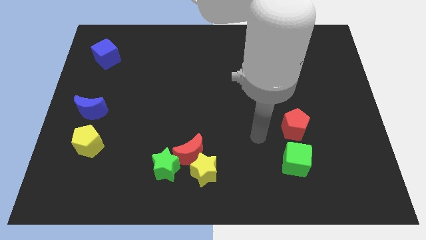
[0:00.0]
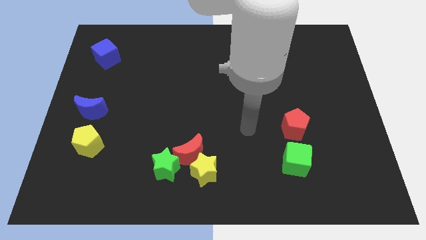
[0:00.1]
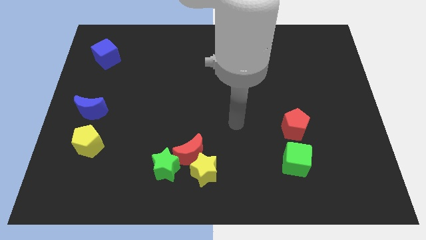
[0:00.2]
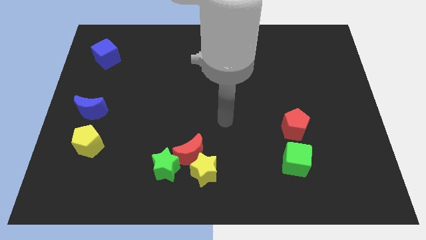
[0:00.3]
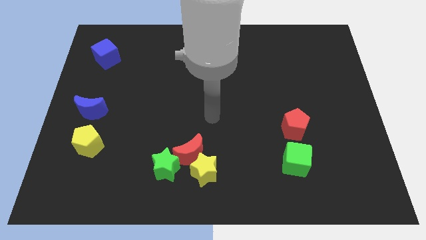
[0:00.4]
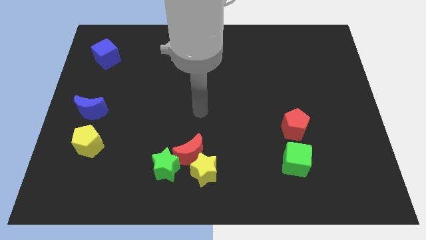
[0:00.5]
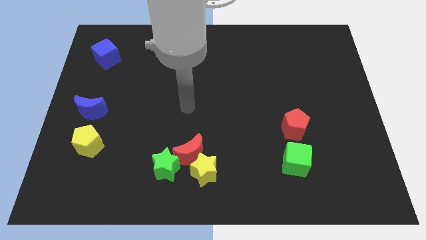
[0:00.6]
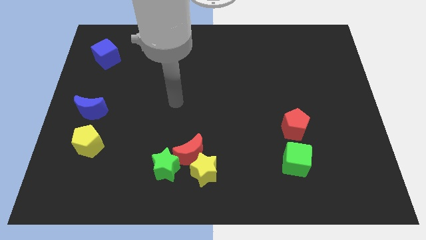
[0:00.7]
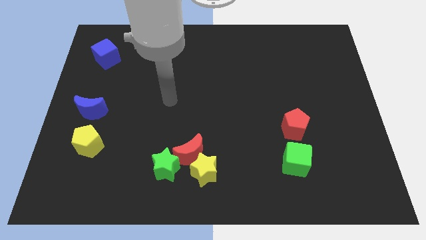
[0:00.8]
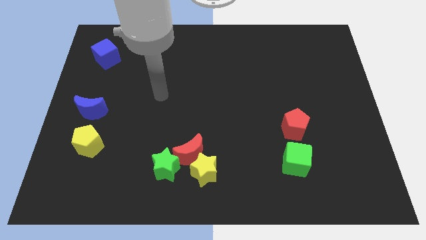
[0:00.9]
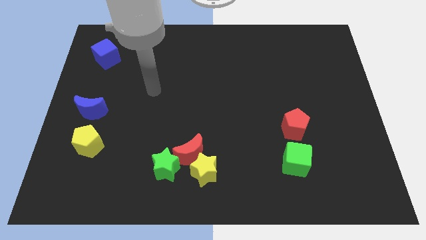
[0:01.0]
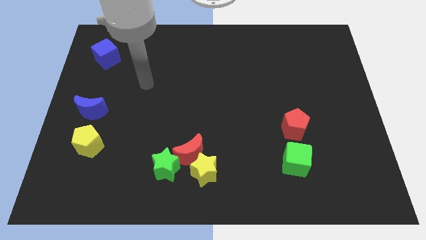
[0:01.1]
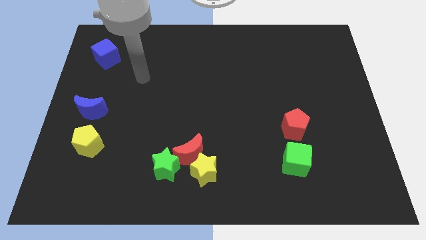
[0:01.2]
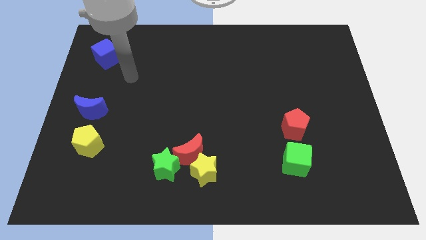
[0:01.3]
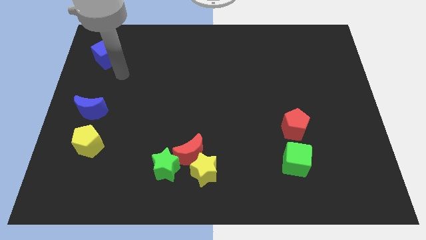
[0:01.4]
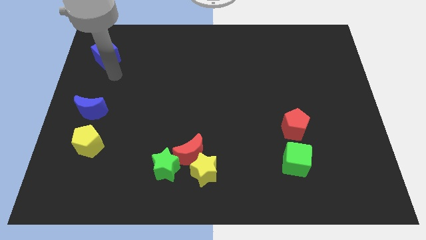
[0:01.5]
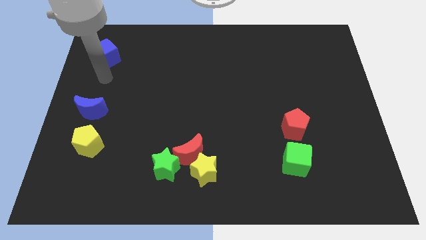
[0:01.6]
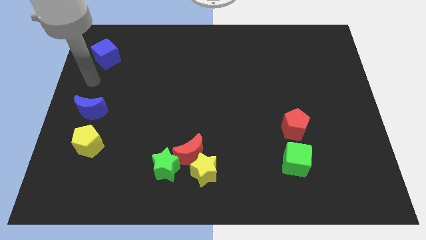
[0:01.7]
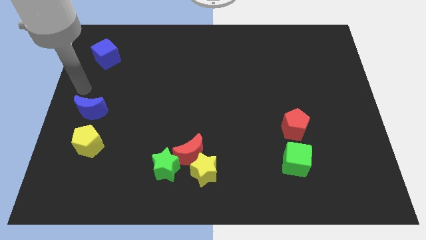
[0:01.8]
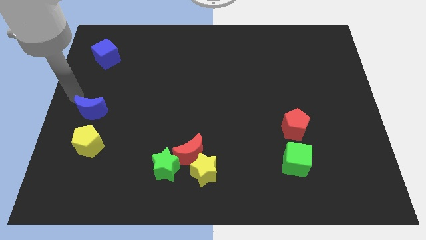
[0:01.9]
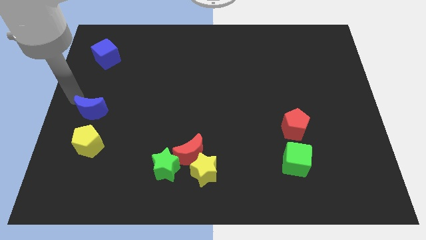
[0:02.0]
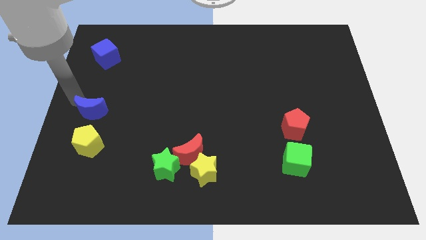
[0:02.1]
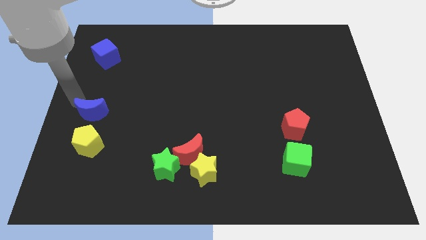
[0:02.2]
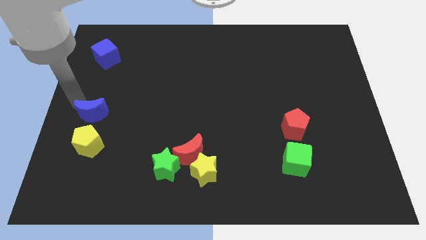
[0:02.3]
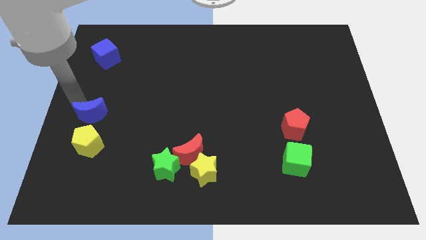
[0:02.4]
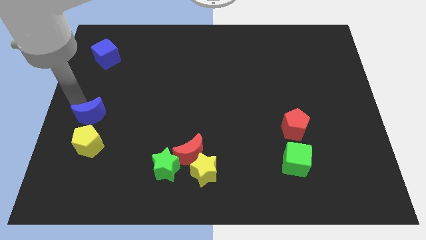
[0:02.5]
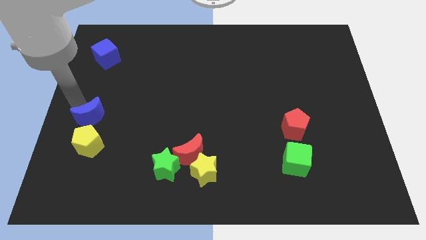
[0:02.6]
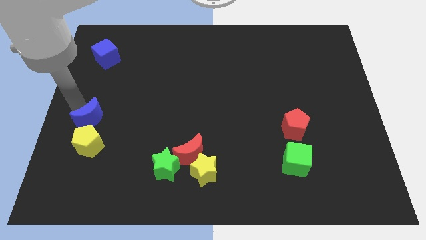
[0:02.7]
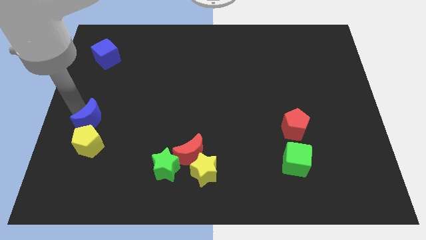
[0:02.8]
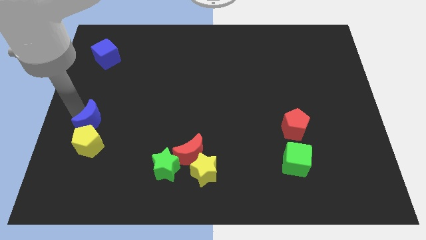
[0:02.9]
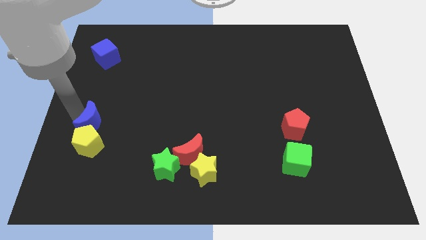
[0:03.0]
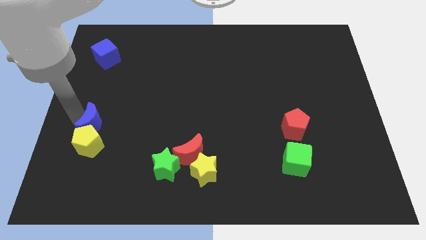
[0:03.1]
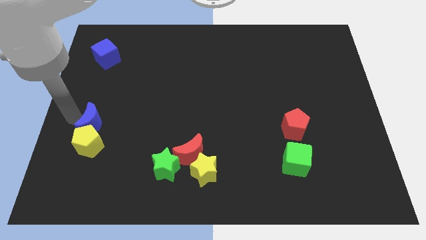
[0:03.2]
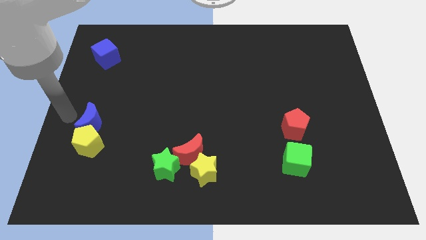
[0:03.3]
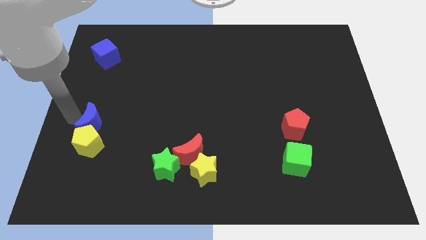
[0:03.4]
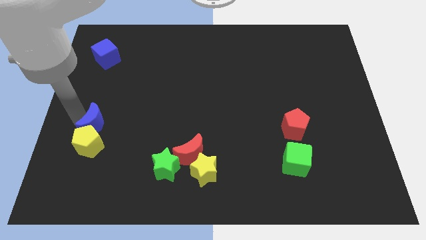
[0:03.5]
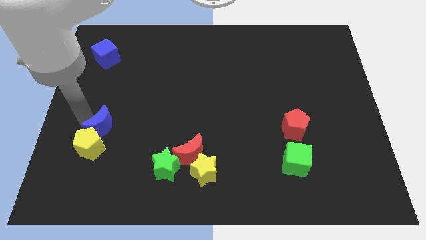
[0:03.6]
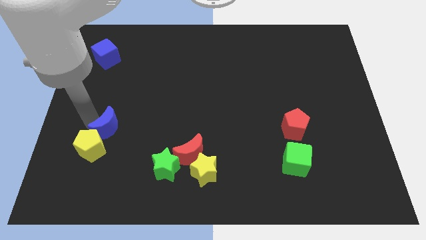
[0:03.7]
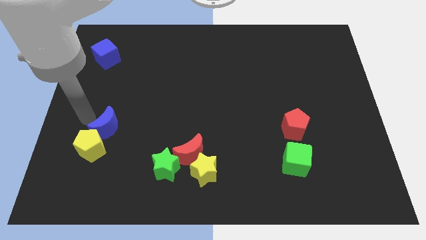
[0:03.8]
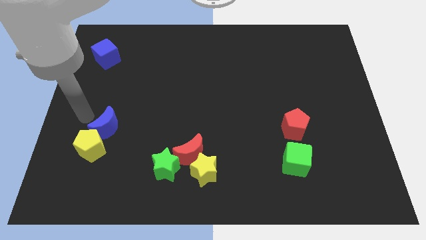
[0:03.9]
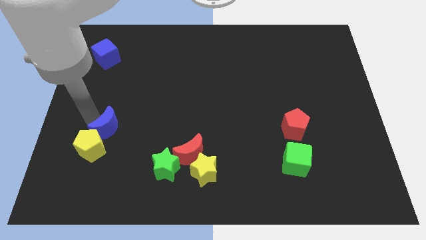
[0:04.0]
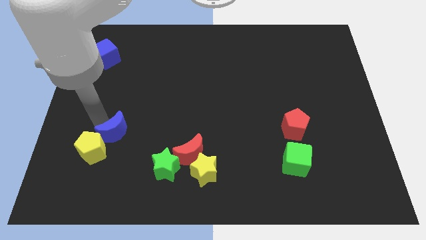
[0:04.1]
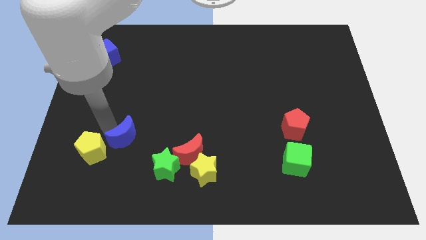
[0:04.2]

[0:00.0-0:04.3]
push the blue moon to the top left of the green star

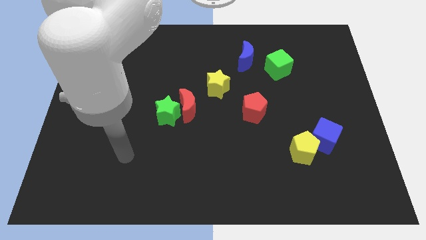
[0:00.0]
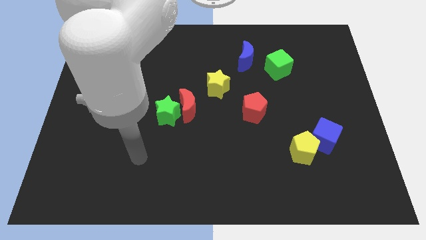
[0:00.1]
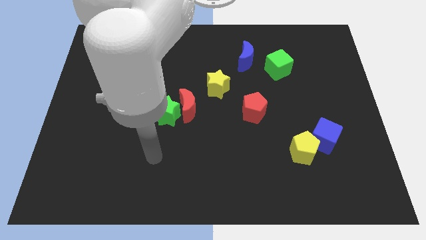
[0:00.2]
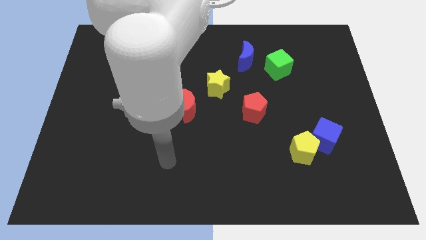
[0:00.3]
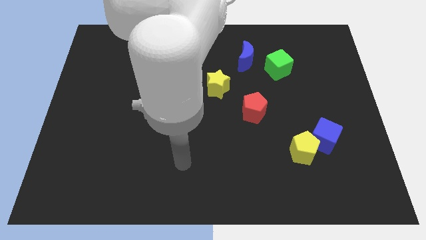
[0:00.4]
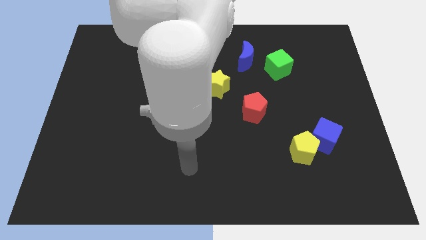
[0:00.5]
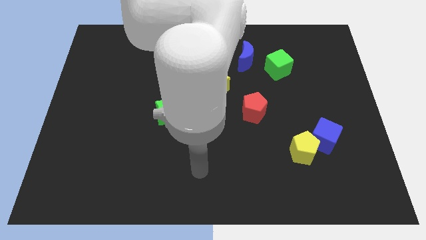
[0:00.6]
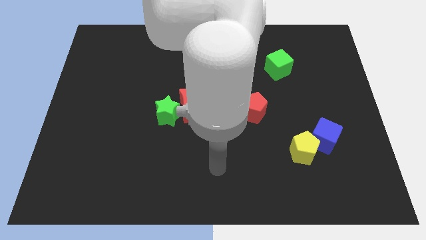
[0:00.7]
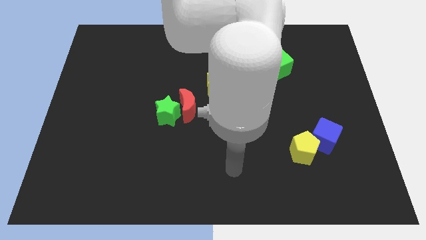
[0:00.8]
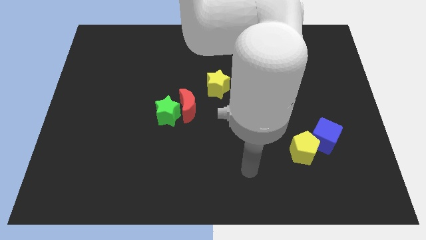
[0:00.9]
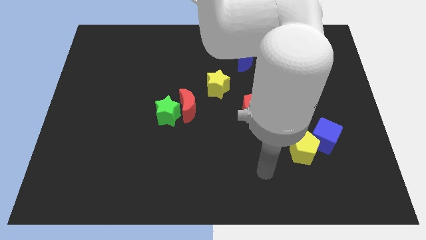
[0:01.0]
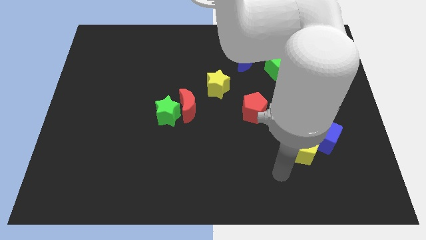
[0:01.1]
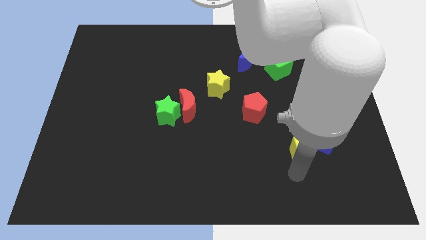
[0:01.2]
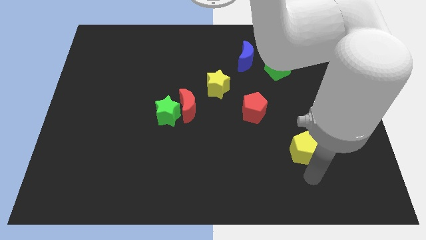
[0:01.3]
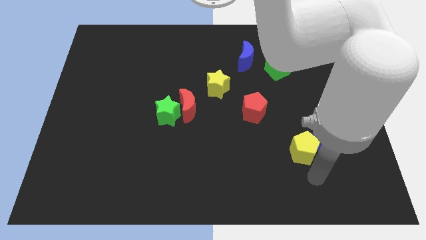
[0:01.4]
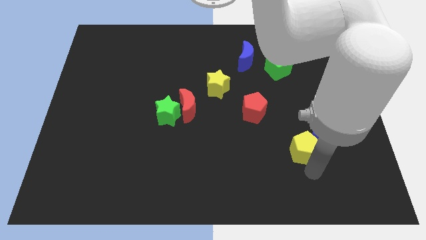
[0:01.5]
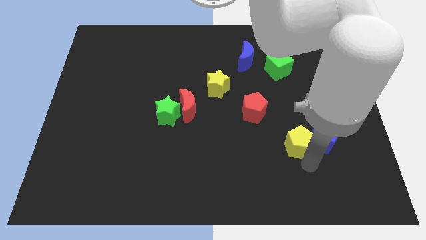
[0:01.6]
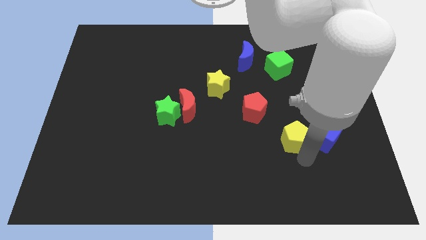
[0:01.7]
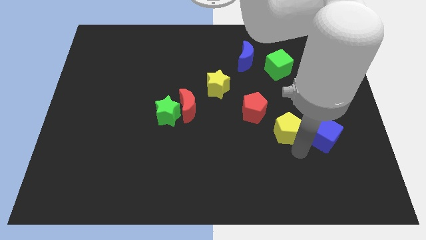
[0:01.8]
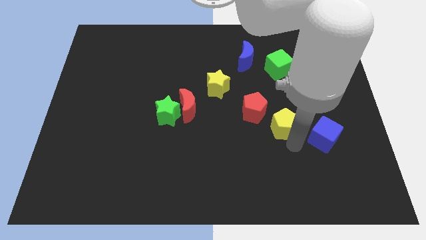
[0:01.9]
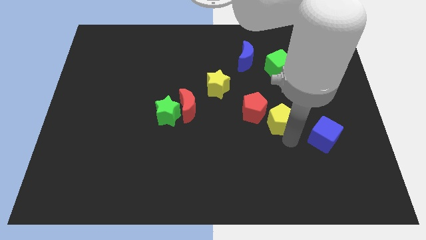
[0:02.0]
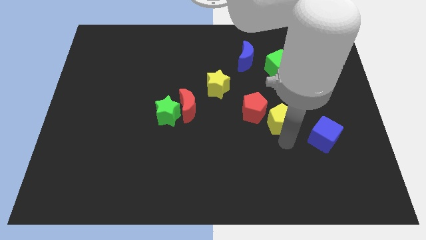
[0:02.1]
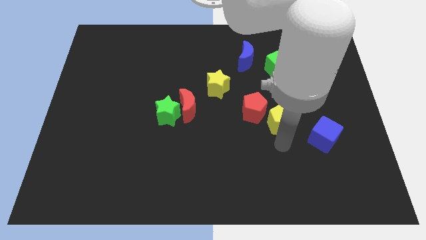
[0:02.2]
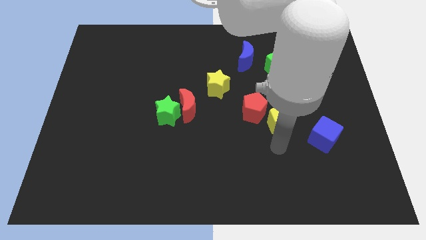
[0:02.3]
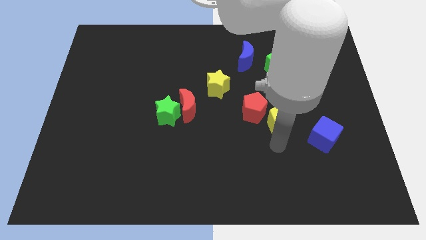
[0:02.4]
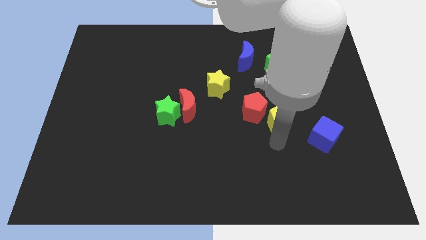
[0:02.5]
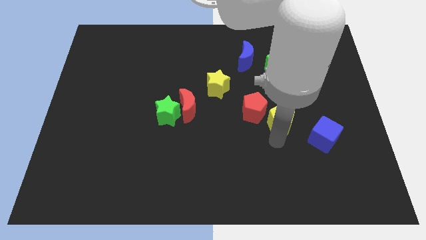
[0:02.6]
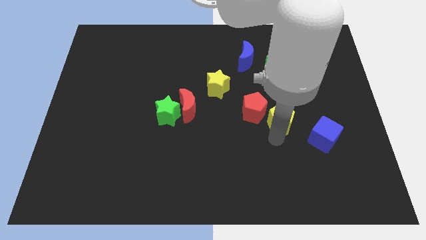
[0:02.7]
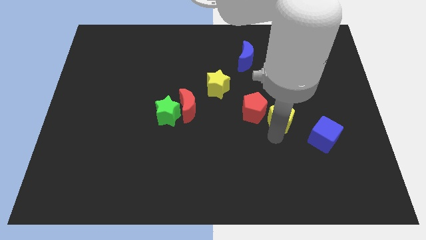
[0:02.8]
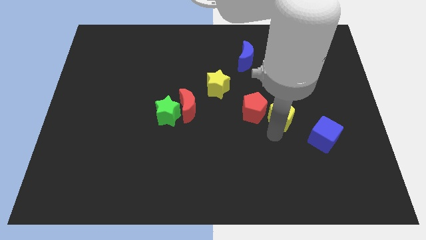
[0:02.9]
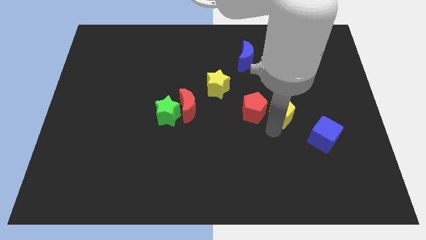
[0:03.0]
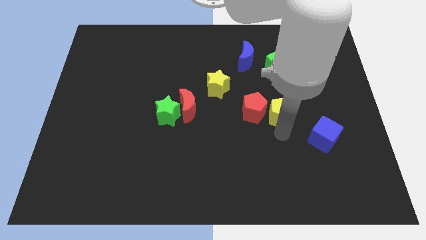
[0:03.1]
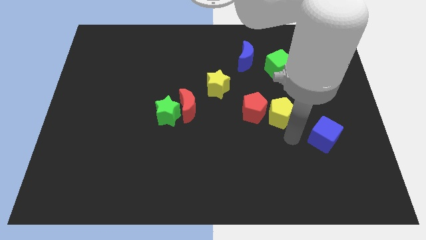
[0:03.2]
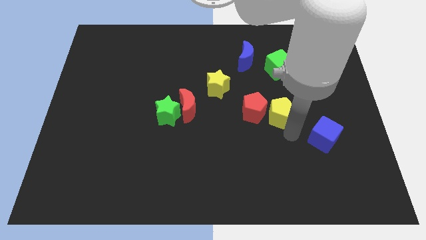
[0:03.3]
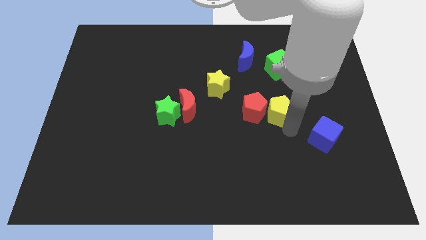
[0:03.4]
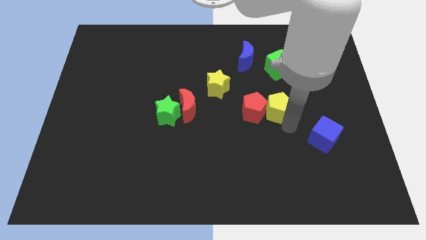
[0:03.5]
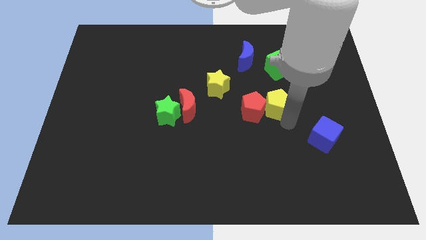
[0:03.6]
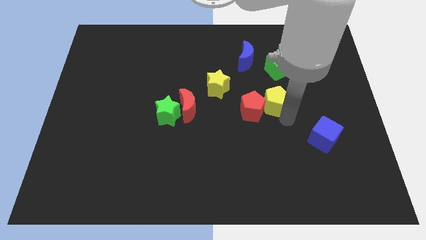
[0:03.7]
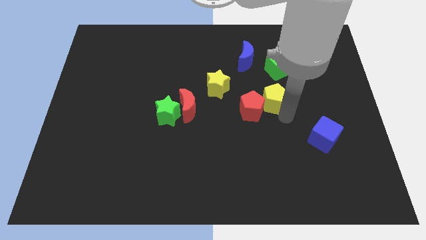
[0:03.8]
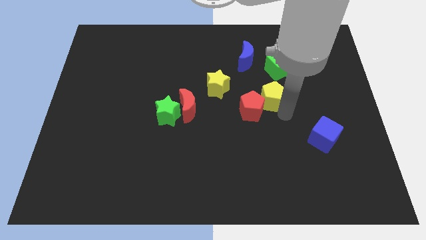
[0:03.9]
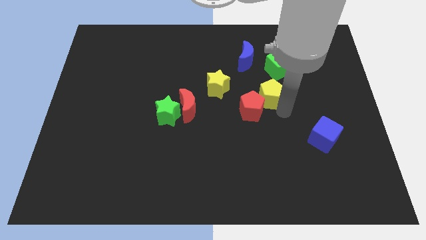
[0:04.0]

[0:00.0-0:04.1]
put the yellow pentagon diagonally down and to the left of the green cube
